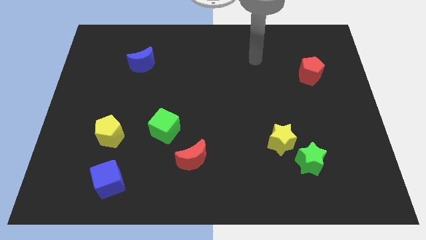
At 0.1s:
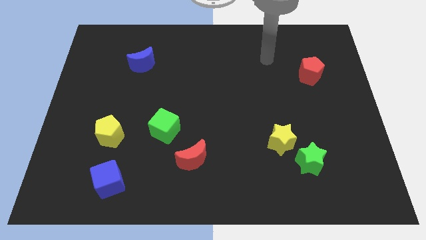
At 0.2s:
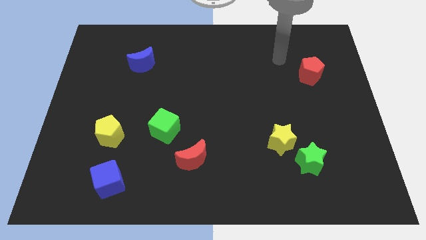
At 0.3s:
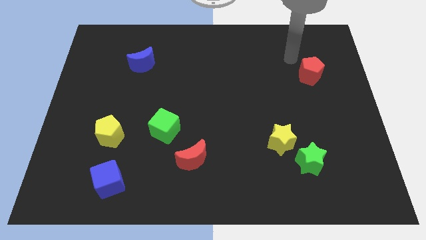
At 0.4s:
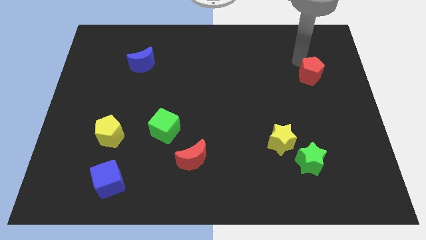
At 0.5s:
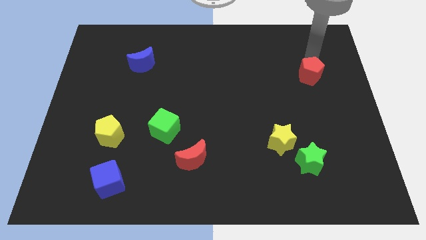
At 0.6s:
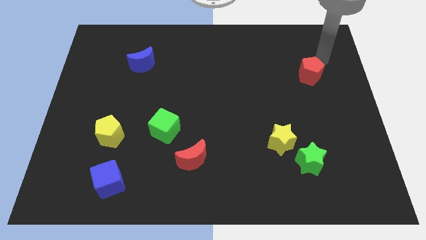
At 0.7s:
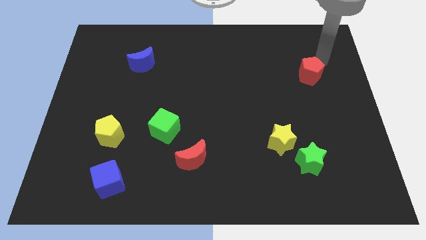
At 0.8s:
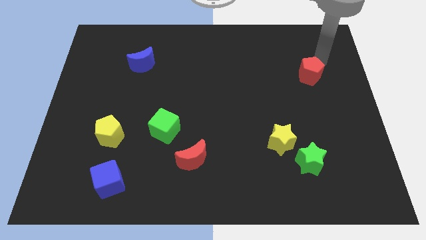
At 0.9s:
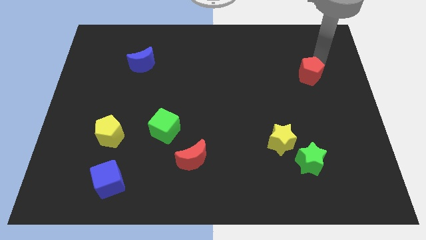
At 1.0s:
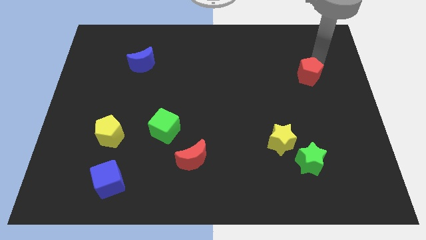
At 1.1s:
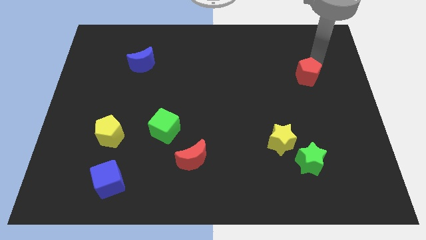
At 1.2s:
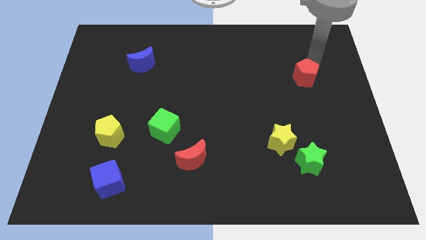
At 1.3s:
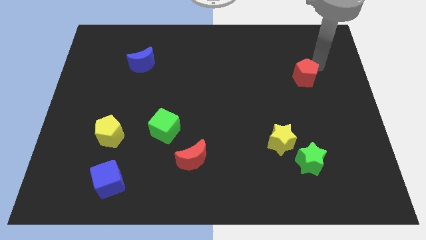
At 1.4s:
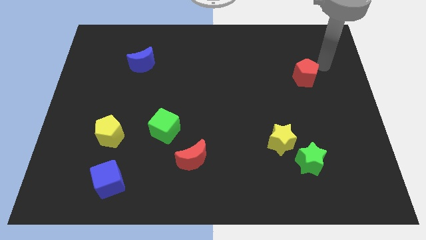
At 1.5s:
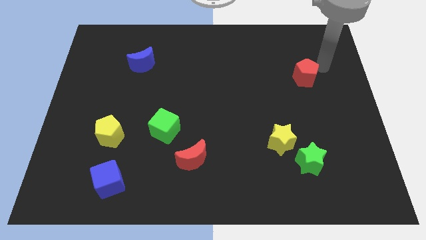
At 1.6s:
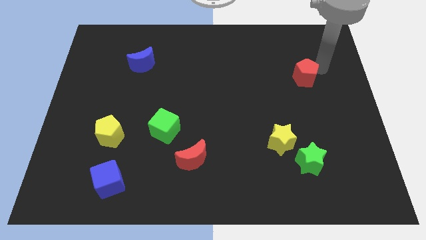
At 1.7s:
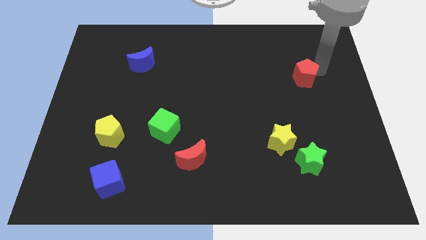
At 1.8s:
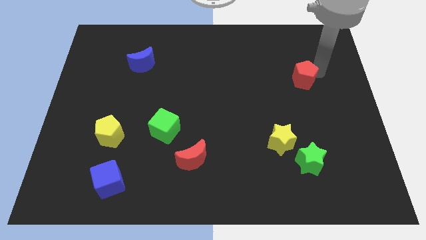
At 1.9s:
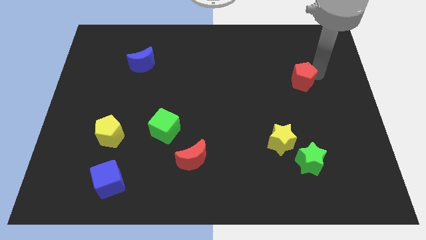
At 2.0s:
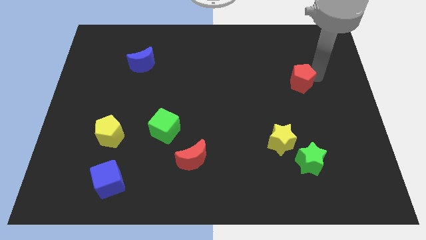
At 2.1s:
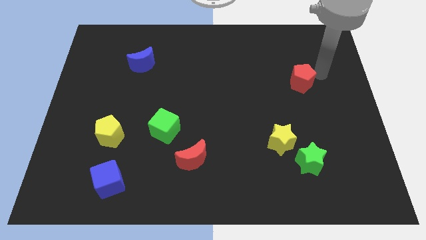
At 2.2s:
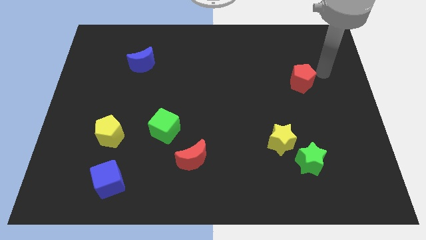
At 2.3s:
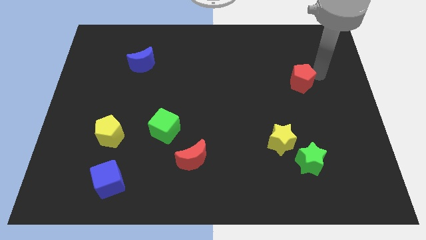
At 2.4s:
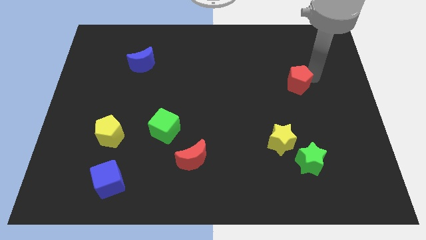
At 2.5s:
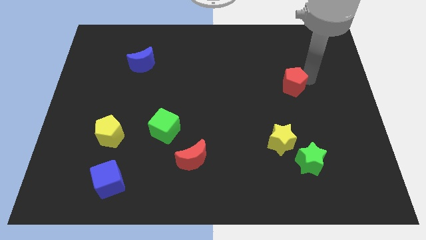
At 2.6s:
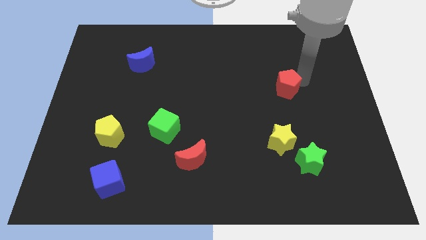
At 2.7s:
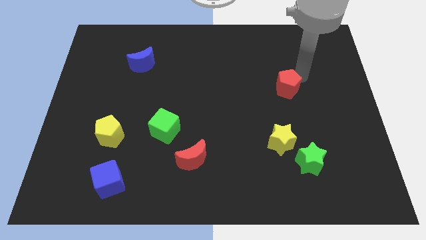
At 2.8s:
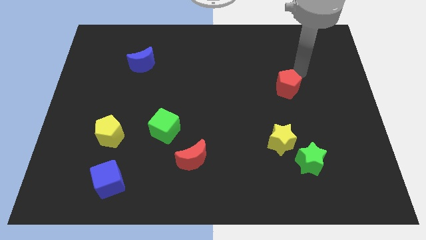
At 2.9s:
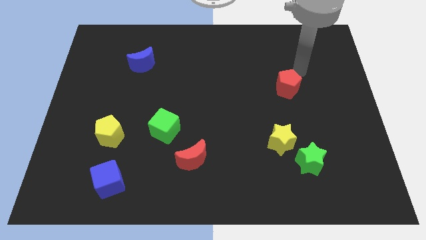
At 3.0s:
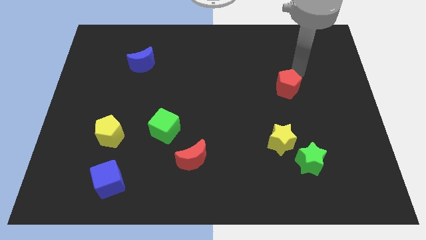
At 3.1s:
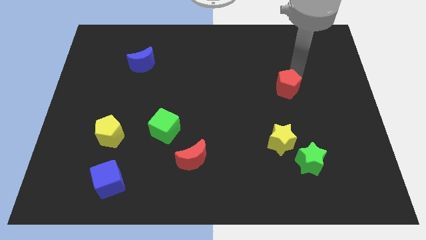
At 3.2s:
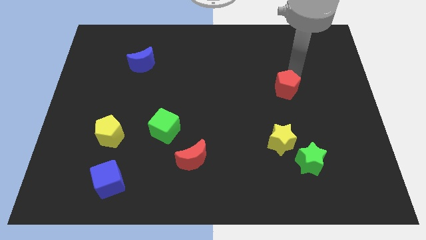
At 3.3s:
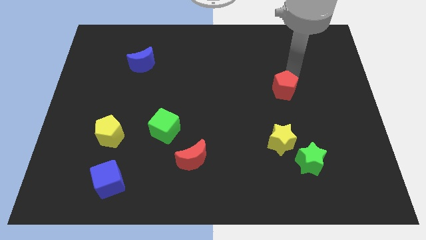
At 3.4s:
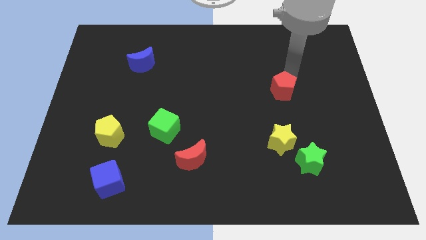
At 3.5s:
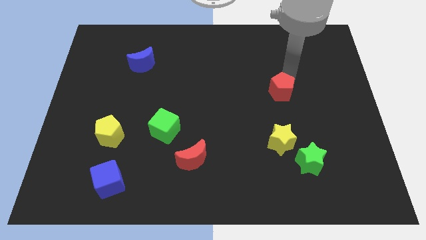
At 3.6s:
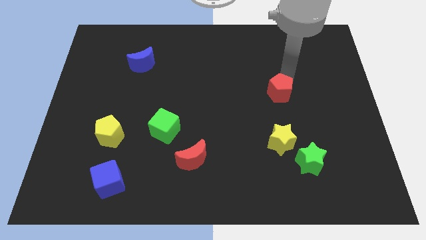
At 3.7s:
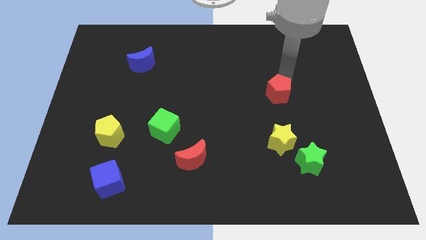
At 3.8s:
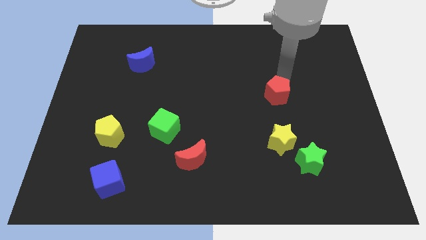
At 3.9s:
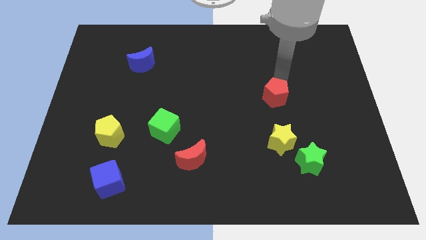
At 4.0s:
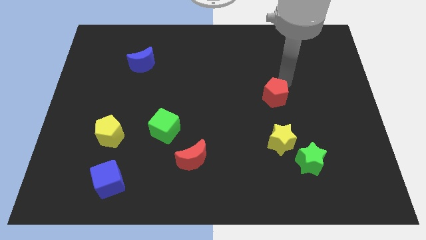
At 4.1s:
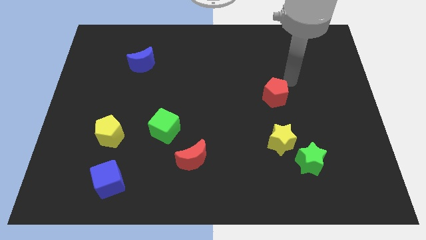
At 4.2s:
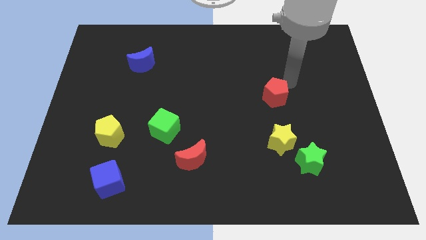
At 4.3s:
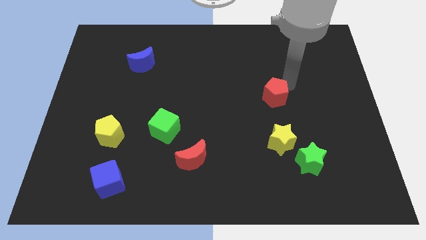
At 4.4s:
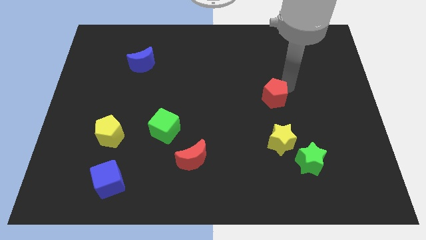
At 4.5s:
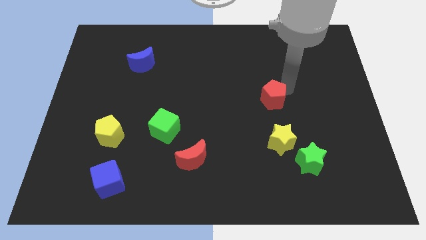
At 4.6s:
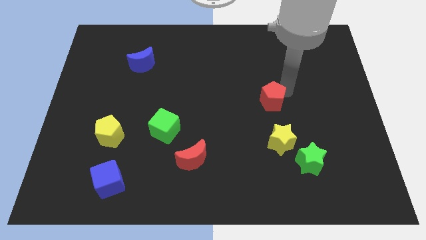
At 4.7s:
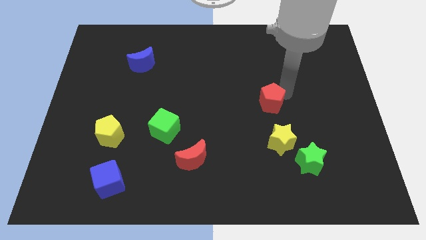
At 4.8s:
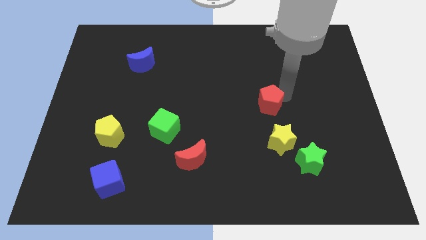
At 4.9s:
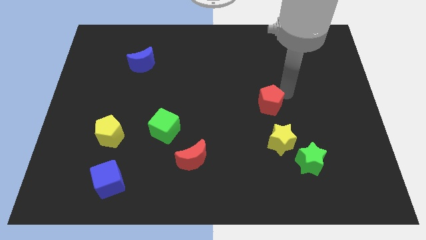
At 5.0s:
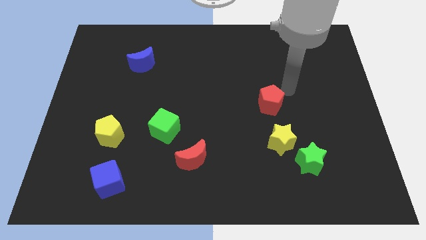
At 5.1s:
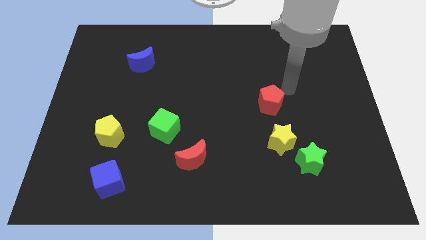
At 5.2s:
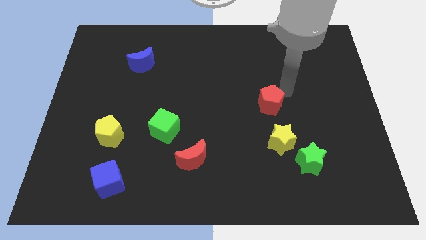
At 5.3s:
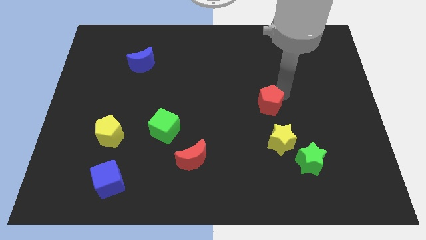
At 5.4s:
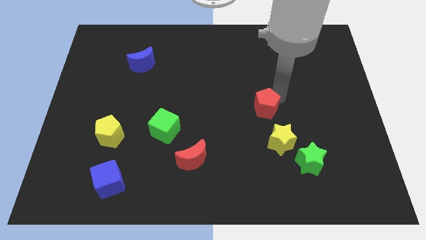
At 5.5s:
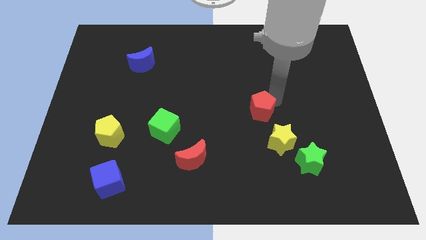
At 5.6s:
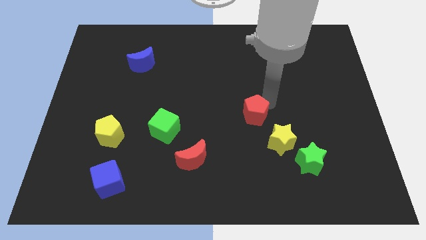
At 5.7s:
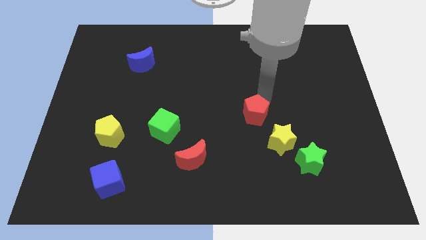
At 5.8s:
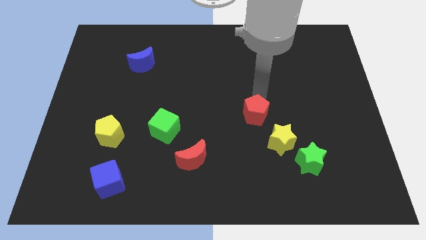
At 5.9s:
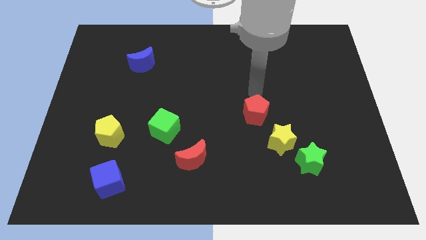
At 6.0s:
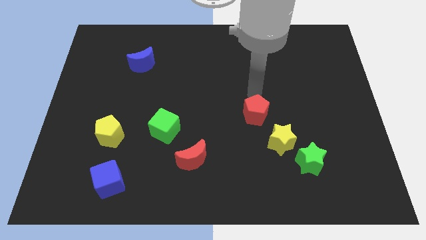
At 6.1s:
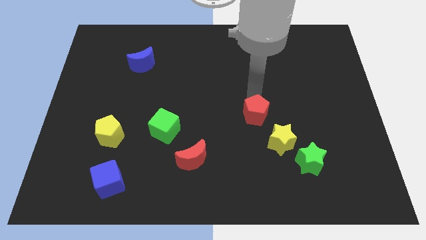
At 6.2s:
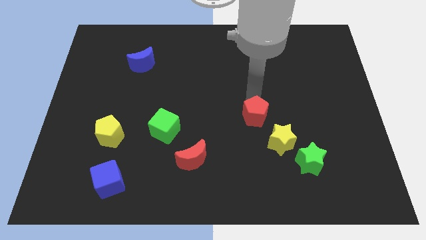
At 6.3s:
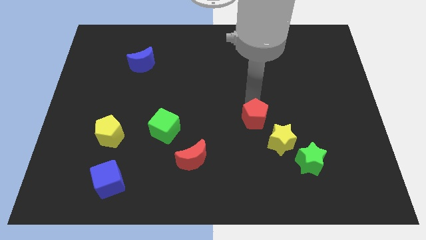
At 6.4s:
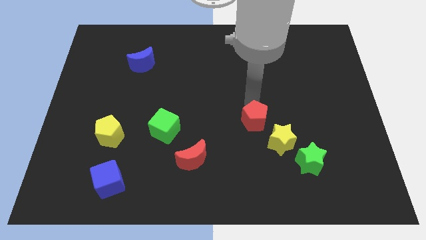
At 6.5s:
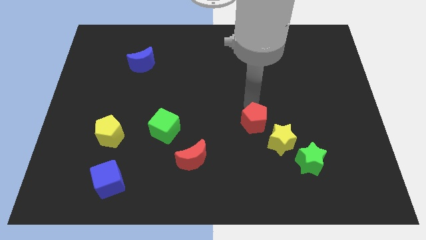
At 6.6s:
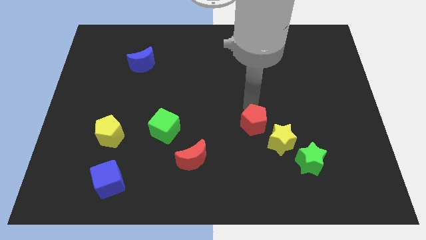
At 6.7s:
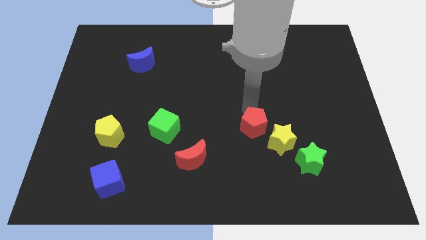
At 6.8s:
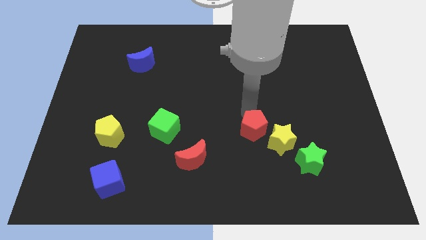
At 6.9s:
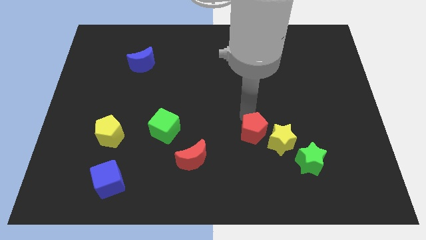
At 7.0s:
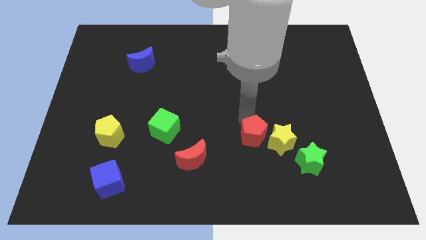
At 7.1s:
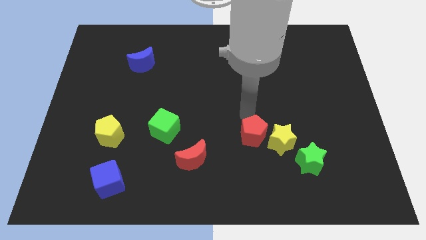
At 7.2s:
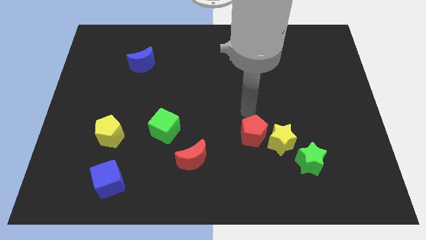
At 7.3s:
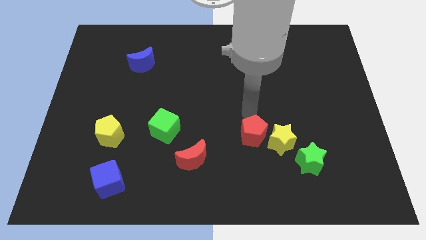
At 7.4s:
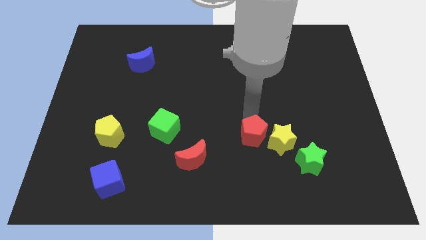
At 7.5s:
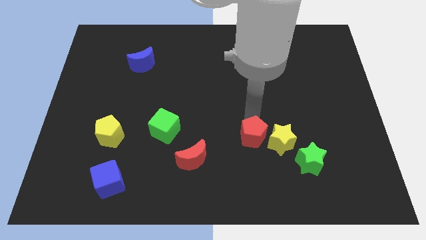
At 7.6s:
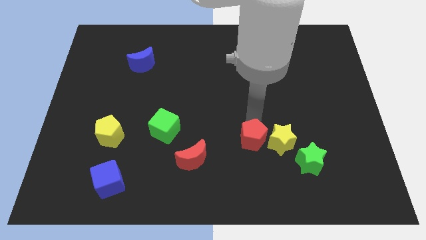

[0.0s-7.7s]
put the red pentagon to the bottom left of the yellow star
